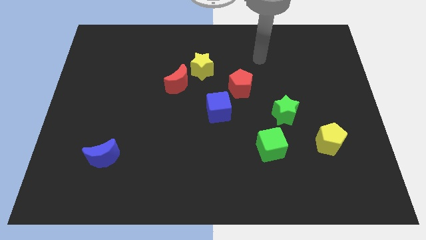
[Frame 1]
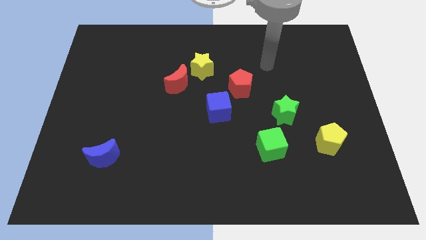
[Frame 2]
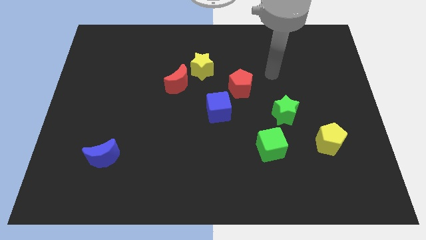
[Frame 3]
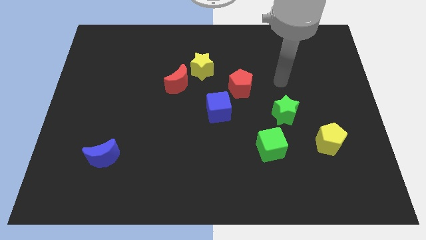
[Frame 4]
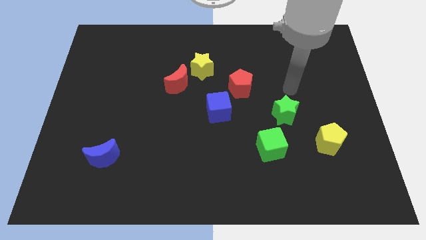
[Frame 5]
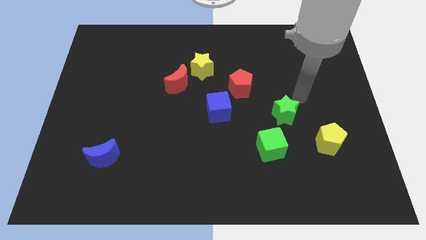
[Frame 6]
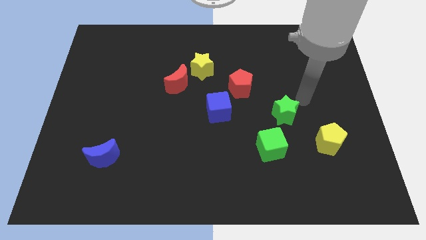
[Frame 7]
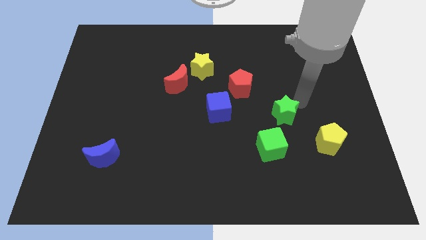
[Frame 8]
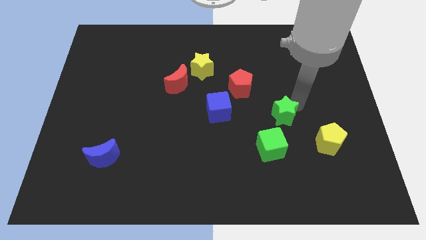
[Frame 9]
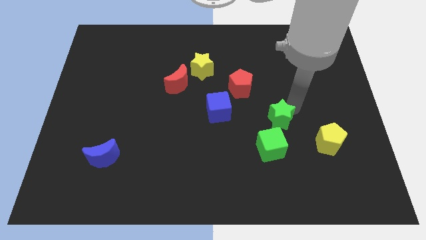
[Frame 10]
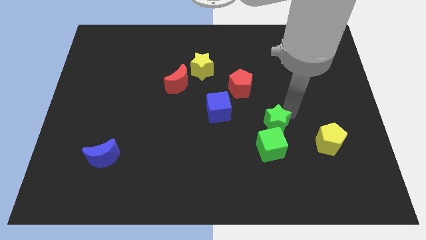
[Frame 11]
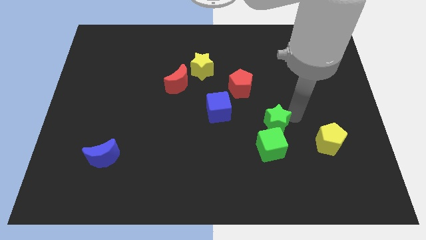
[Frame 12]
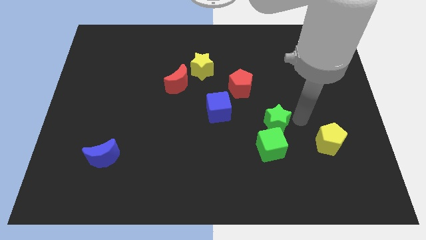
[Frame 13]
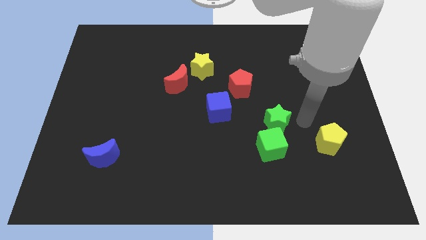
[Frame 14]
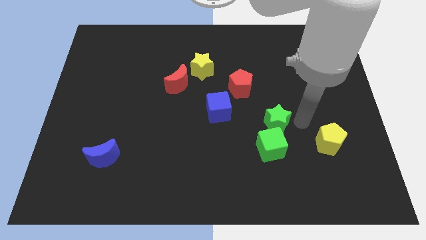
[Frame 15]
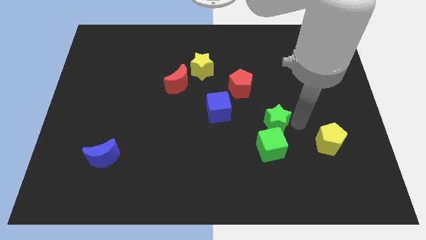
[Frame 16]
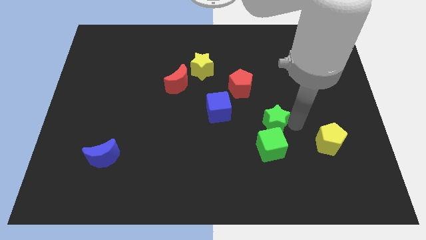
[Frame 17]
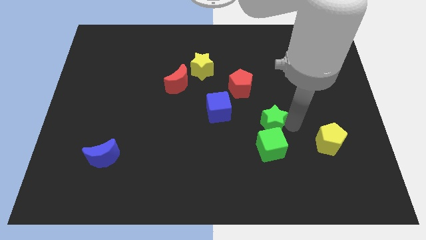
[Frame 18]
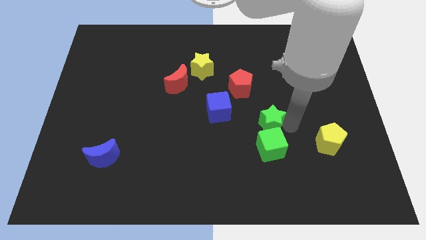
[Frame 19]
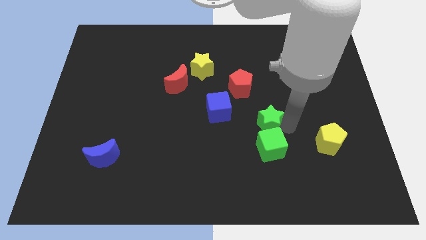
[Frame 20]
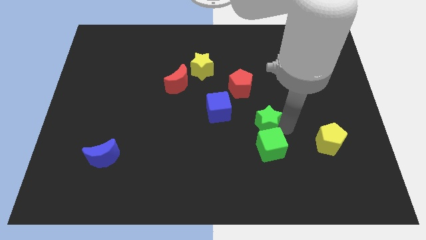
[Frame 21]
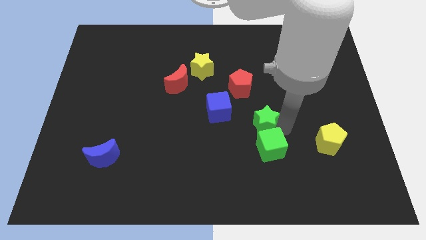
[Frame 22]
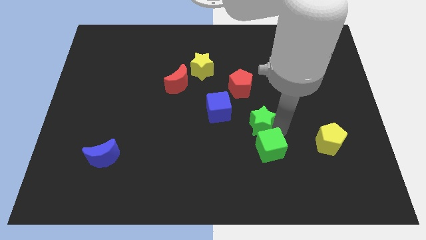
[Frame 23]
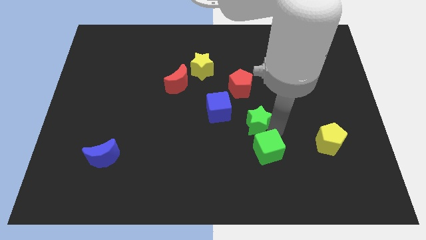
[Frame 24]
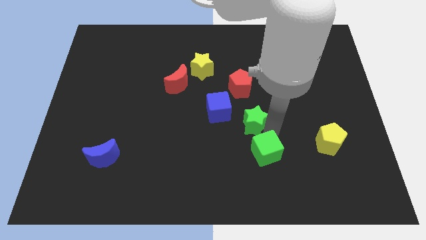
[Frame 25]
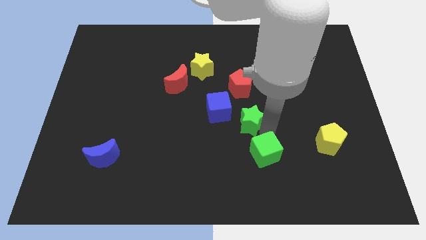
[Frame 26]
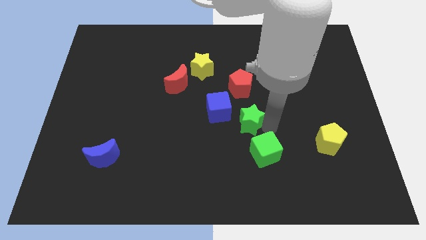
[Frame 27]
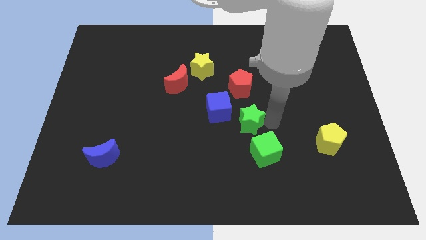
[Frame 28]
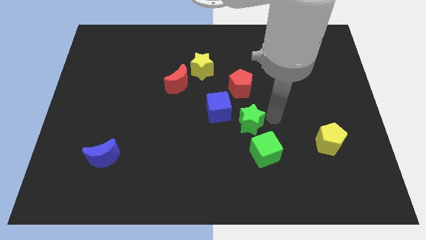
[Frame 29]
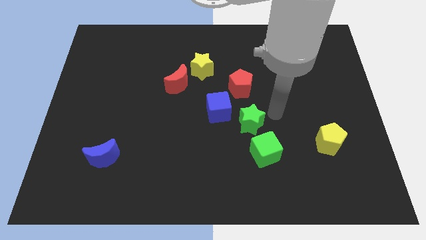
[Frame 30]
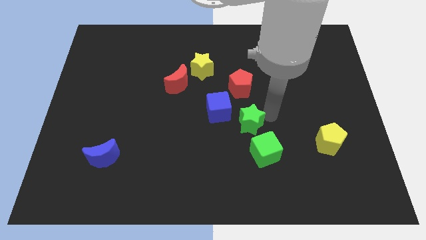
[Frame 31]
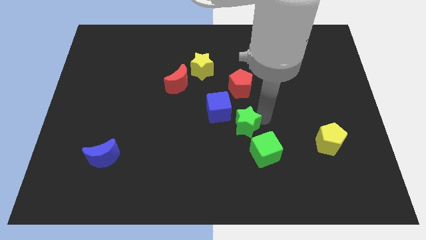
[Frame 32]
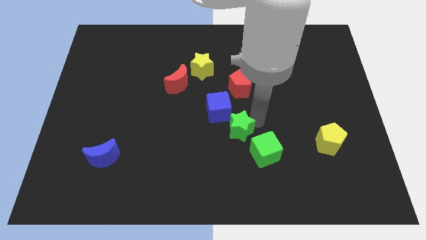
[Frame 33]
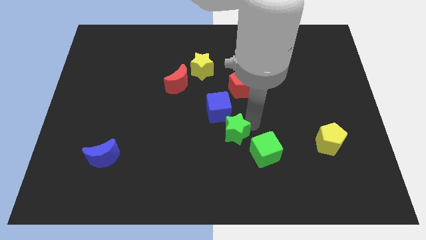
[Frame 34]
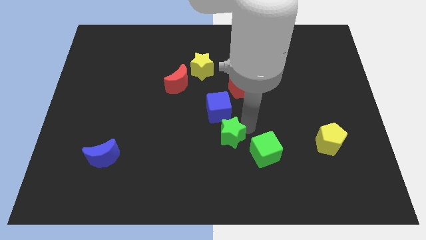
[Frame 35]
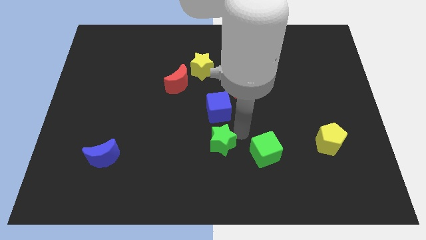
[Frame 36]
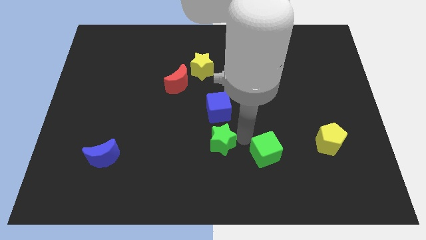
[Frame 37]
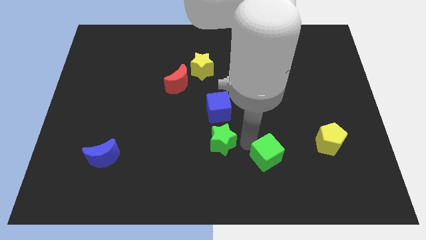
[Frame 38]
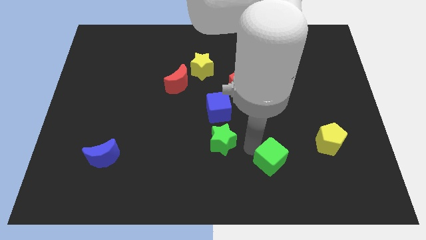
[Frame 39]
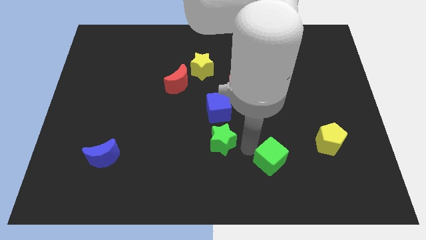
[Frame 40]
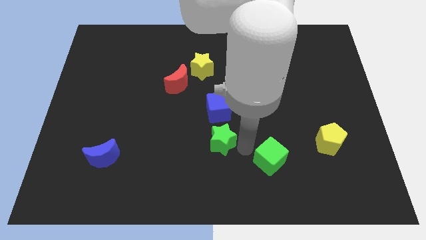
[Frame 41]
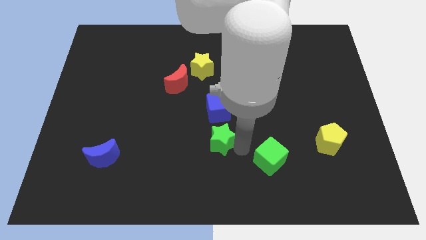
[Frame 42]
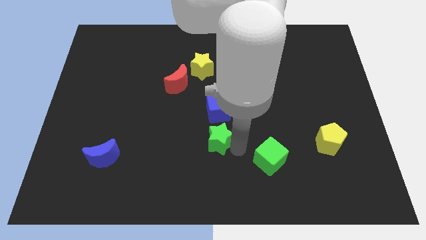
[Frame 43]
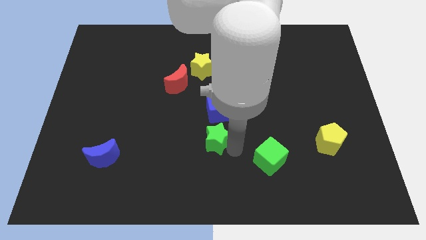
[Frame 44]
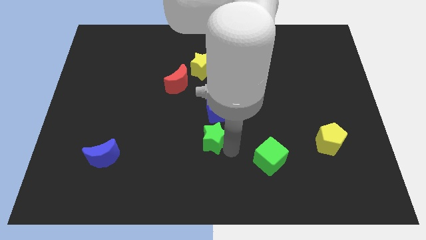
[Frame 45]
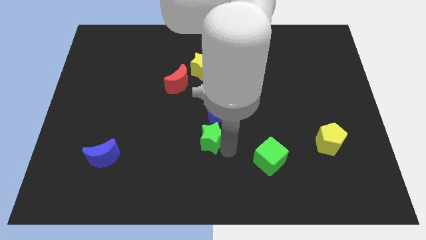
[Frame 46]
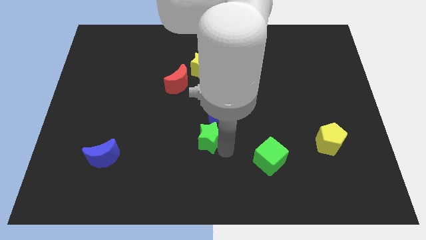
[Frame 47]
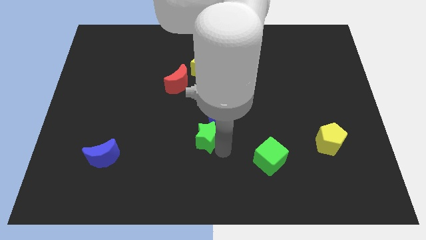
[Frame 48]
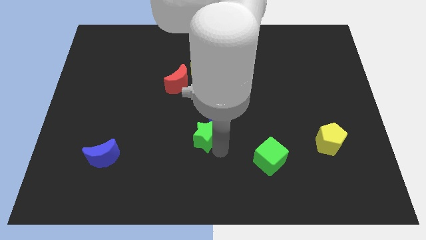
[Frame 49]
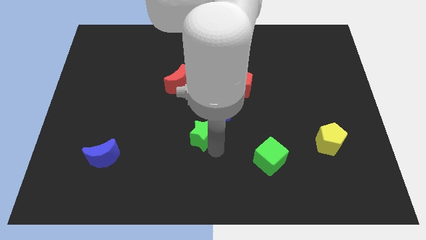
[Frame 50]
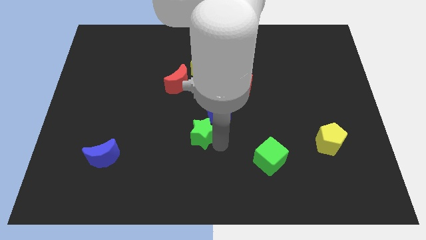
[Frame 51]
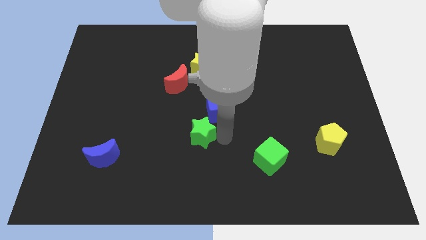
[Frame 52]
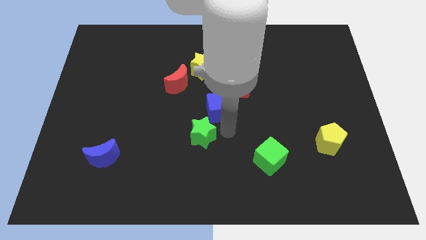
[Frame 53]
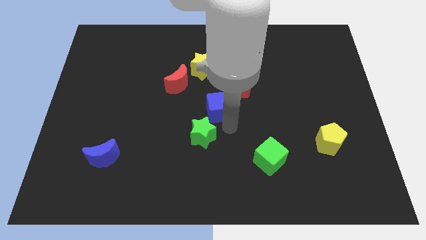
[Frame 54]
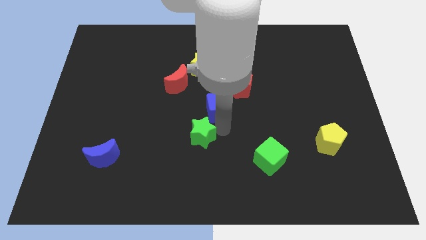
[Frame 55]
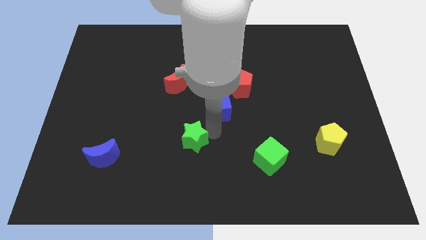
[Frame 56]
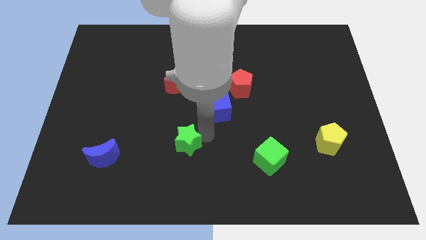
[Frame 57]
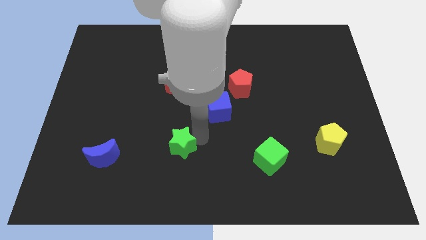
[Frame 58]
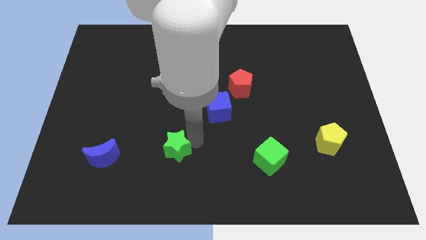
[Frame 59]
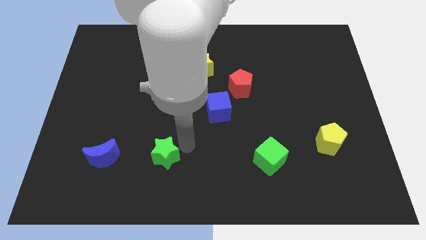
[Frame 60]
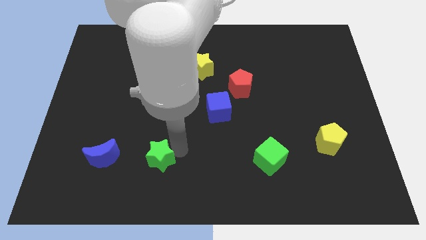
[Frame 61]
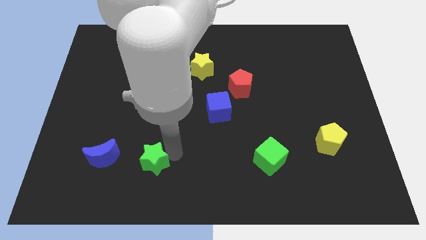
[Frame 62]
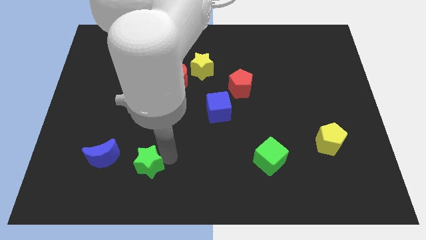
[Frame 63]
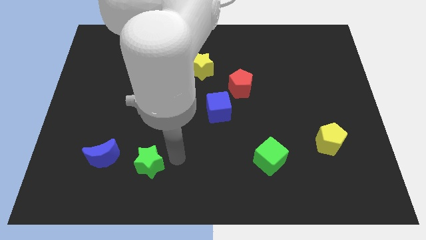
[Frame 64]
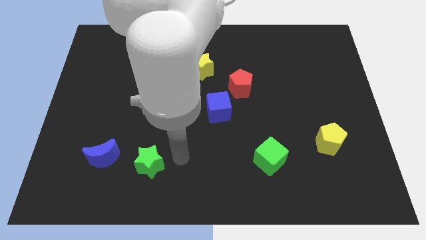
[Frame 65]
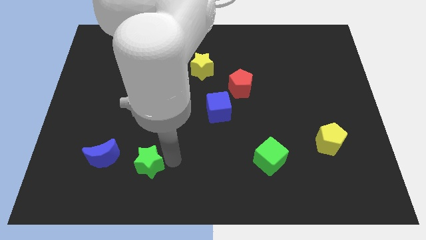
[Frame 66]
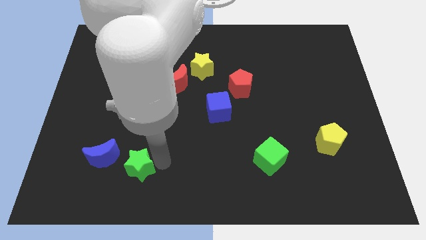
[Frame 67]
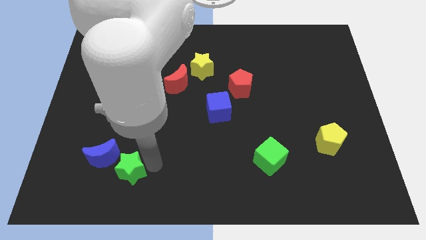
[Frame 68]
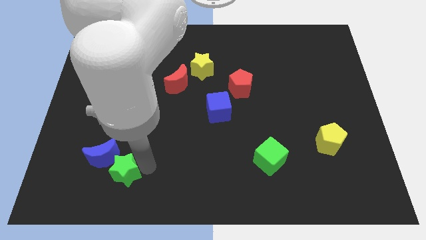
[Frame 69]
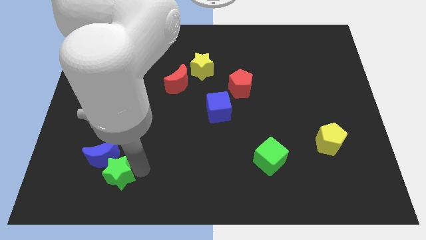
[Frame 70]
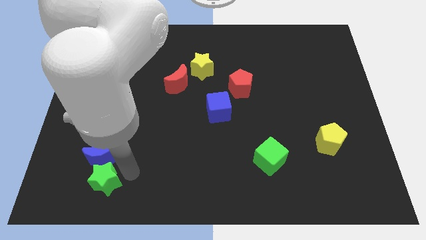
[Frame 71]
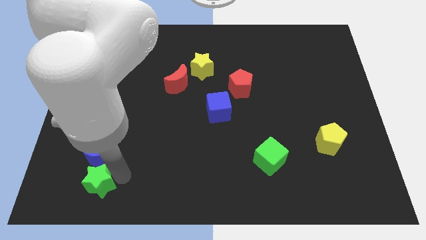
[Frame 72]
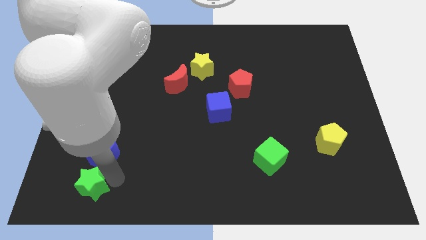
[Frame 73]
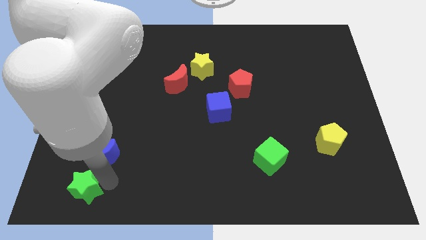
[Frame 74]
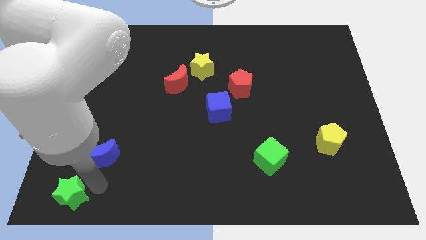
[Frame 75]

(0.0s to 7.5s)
move the green star to the lower left corner
